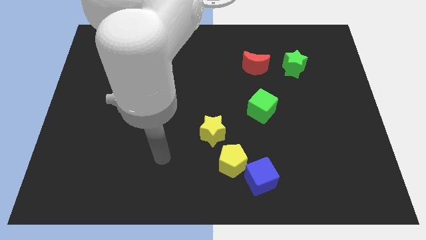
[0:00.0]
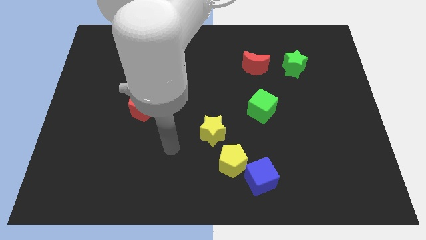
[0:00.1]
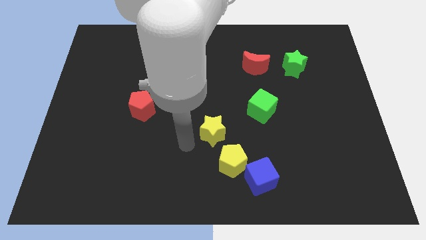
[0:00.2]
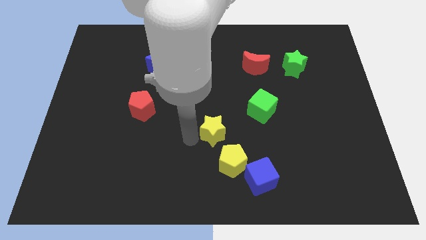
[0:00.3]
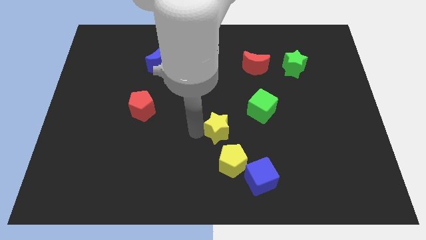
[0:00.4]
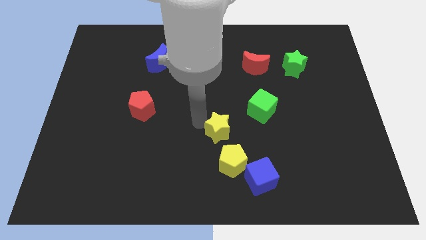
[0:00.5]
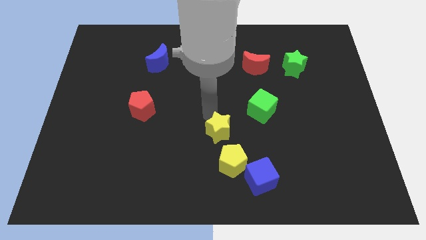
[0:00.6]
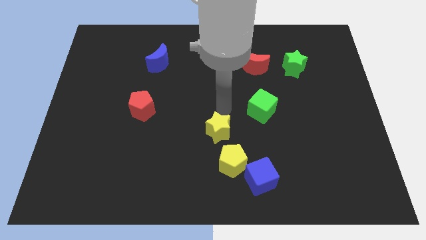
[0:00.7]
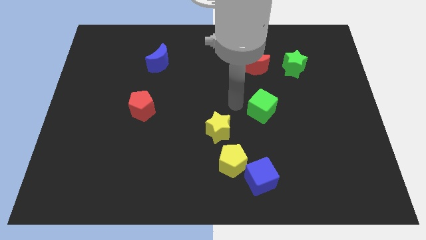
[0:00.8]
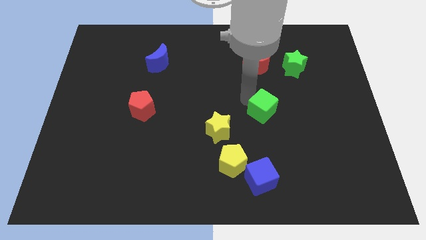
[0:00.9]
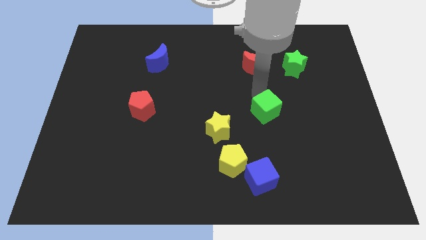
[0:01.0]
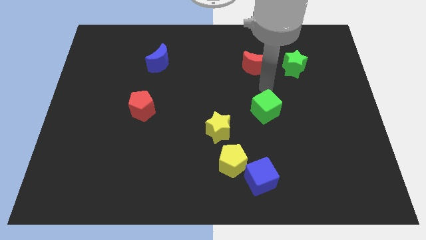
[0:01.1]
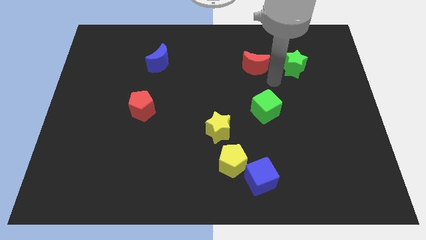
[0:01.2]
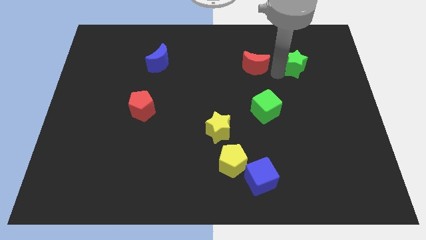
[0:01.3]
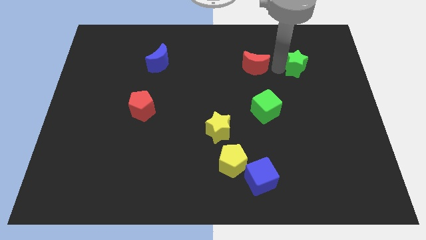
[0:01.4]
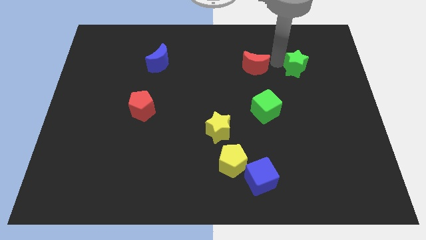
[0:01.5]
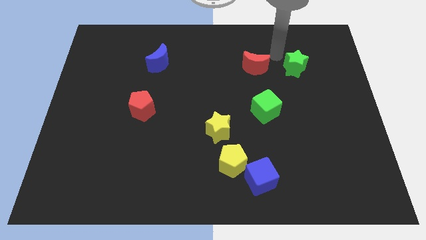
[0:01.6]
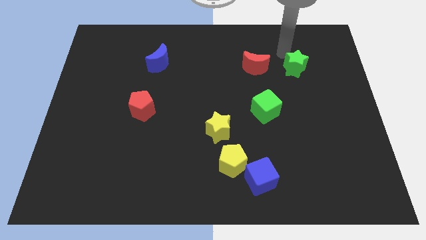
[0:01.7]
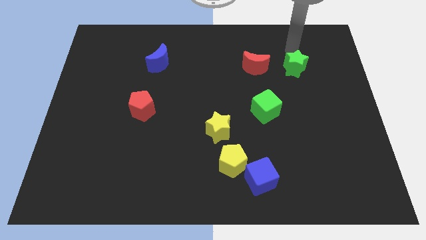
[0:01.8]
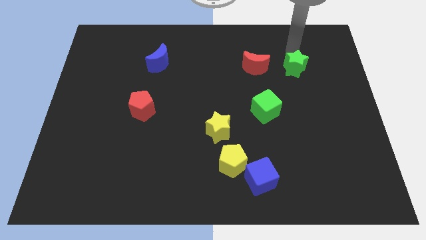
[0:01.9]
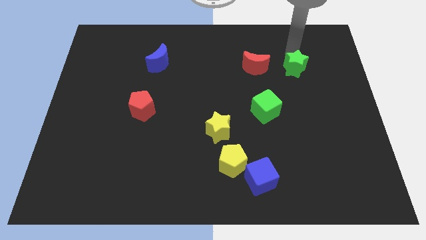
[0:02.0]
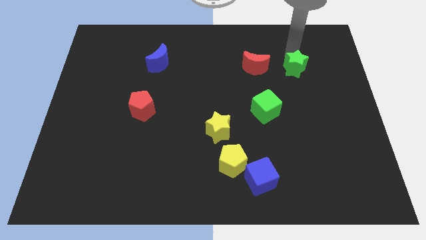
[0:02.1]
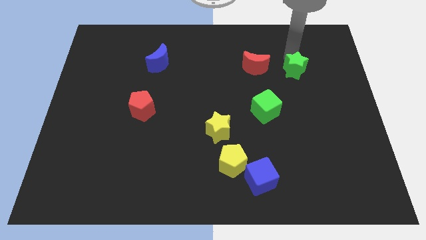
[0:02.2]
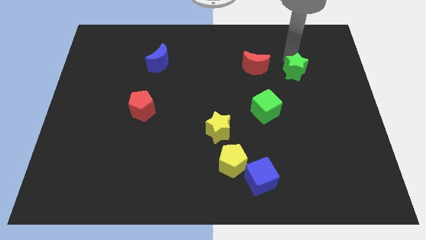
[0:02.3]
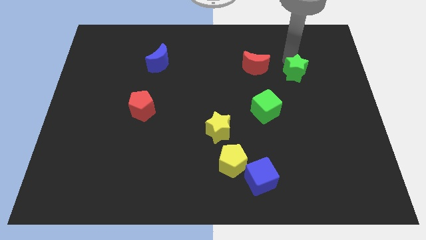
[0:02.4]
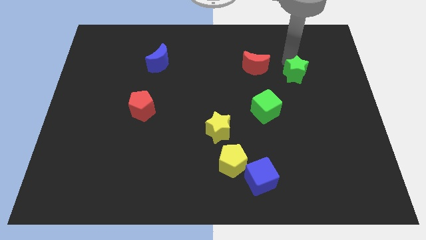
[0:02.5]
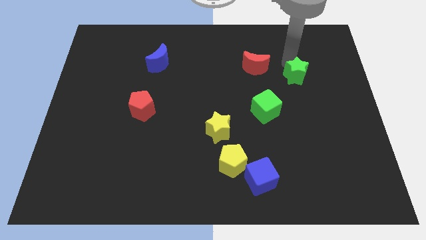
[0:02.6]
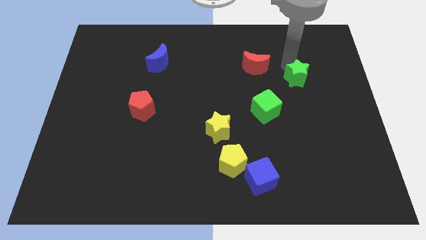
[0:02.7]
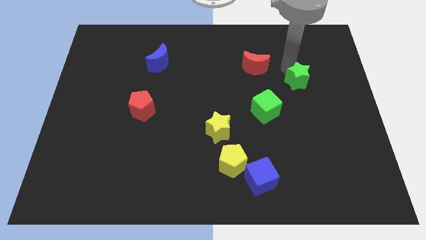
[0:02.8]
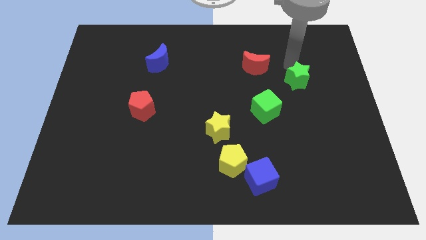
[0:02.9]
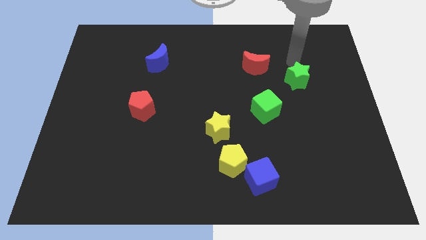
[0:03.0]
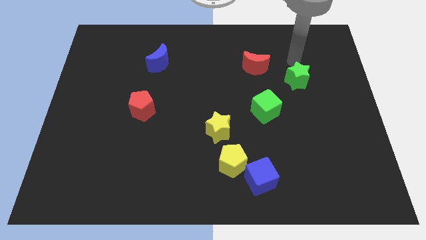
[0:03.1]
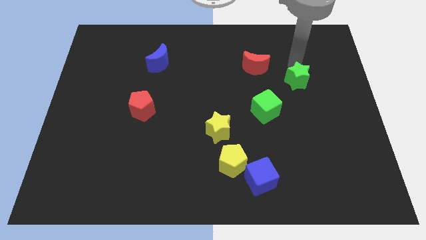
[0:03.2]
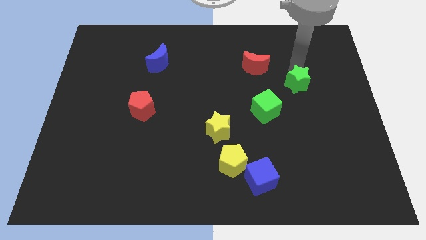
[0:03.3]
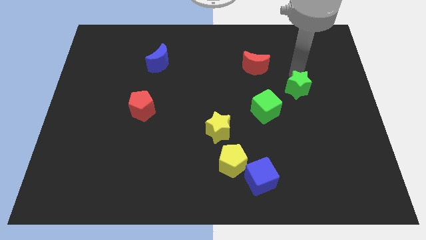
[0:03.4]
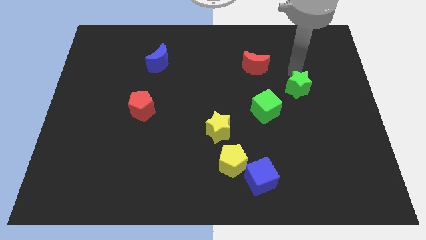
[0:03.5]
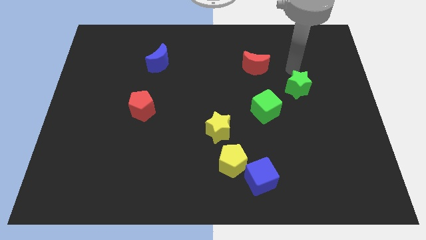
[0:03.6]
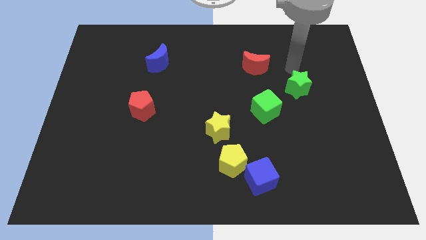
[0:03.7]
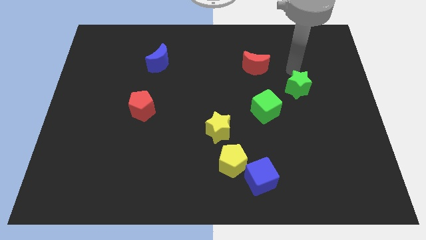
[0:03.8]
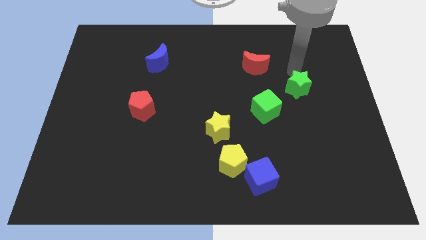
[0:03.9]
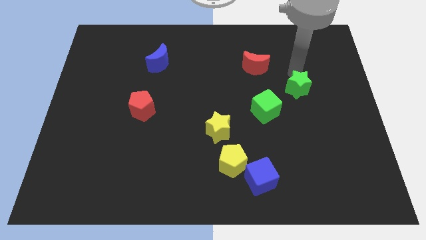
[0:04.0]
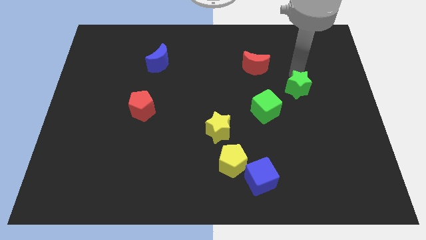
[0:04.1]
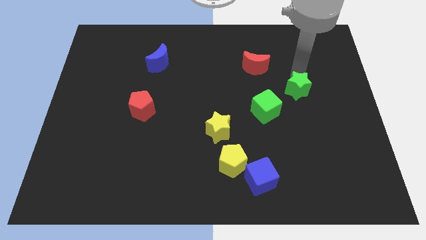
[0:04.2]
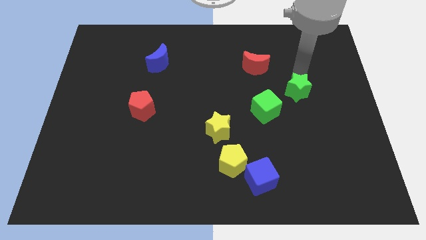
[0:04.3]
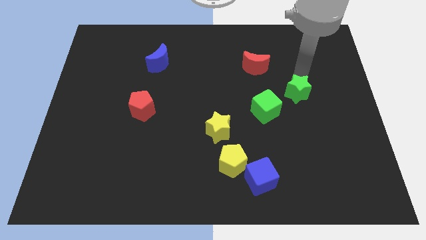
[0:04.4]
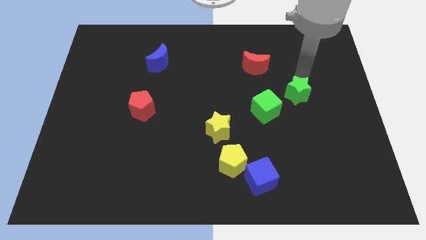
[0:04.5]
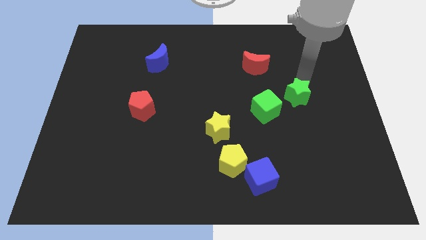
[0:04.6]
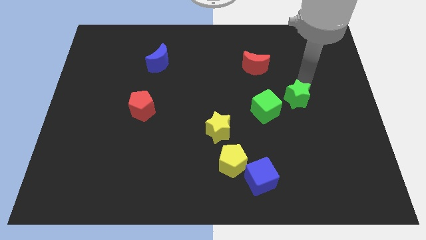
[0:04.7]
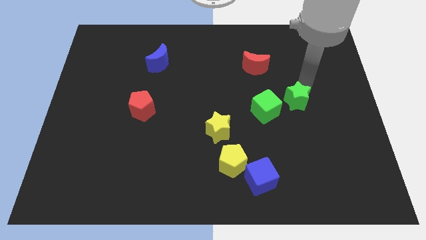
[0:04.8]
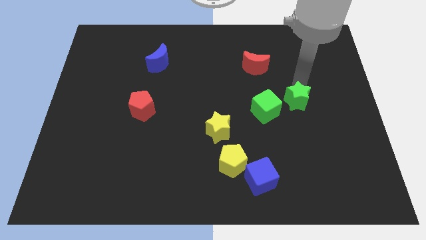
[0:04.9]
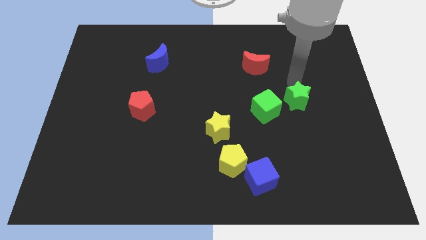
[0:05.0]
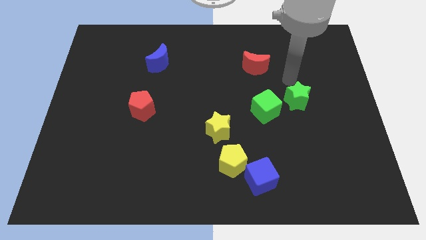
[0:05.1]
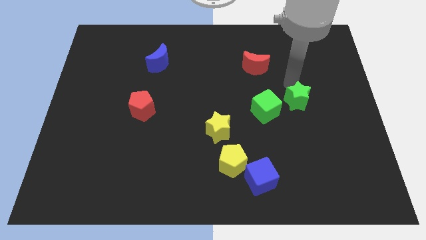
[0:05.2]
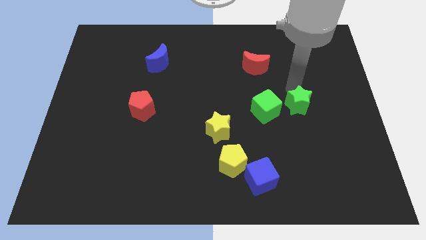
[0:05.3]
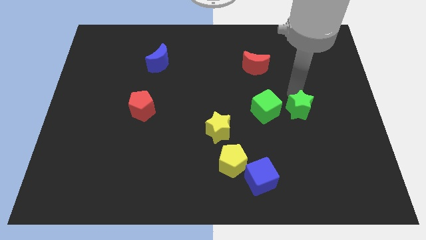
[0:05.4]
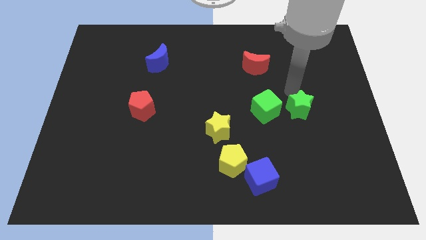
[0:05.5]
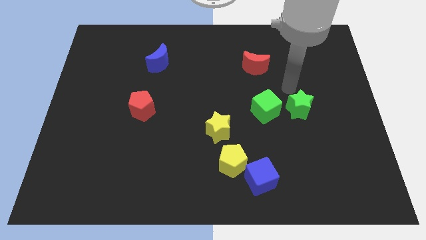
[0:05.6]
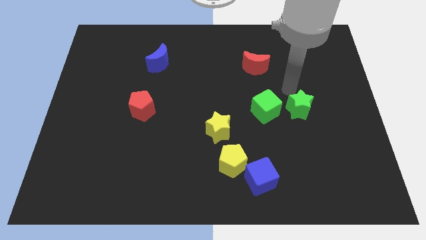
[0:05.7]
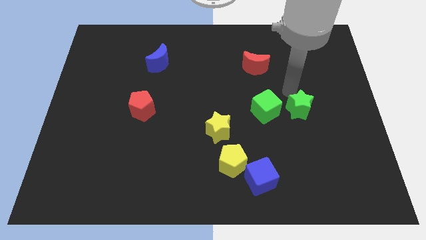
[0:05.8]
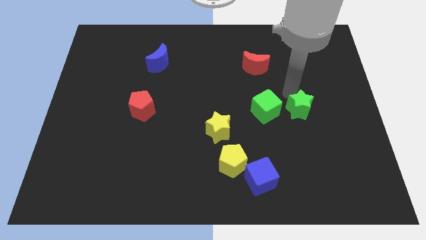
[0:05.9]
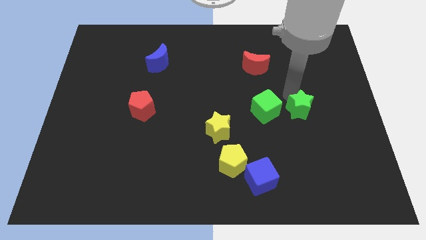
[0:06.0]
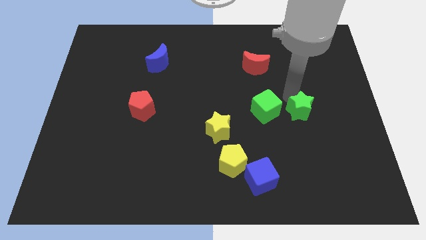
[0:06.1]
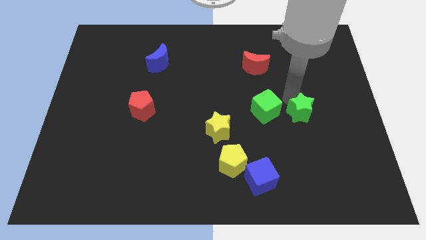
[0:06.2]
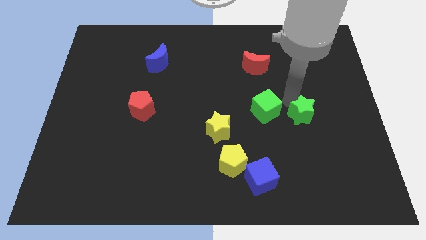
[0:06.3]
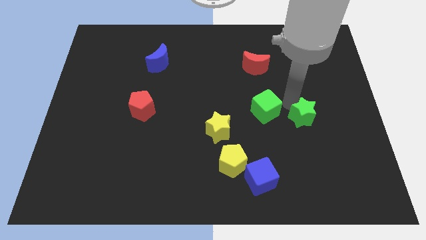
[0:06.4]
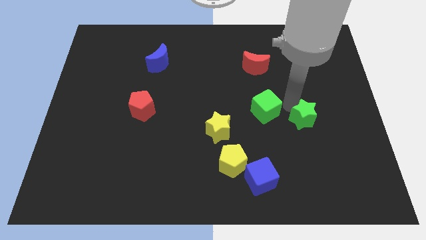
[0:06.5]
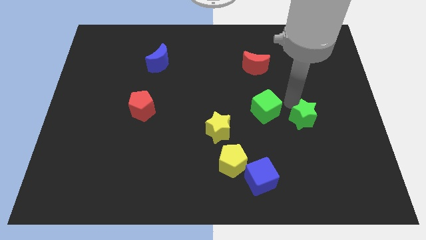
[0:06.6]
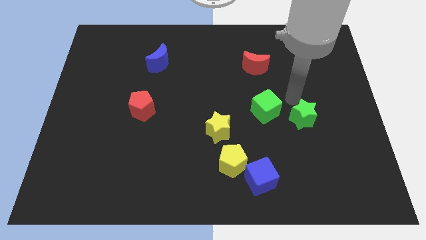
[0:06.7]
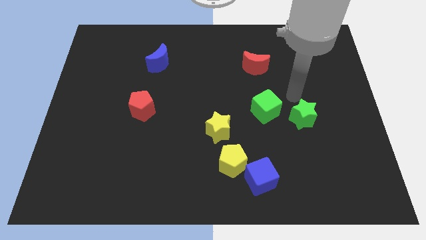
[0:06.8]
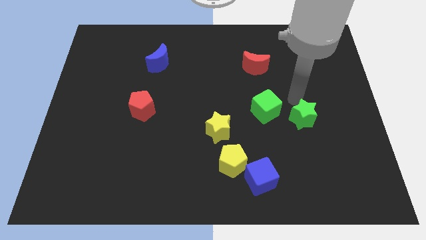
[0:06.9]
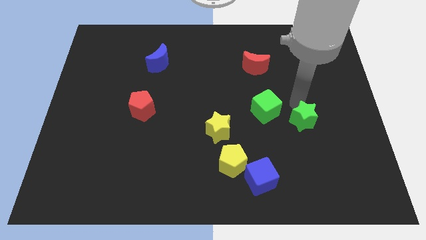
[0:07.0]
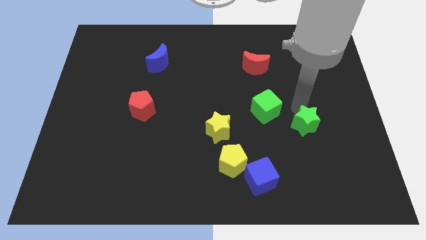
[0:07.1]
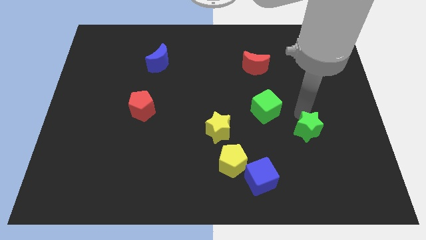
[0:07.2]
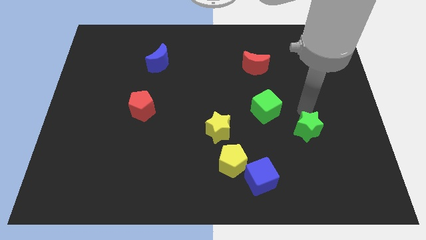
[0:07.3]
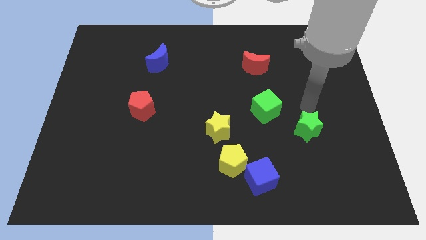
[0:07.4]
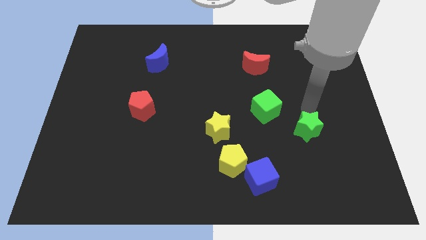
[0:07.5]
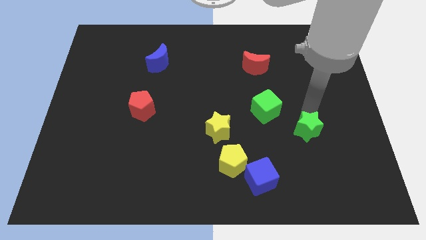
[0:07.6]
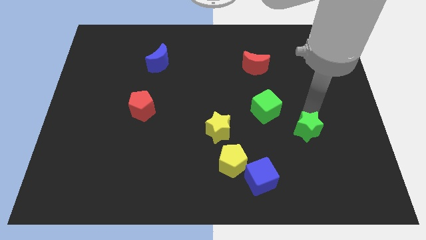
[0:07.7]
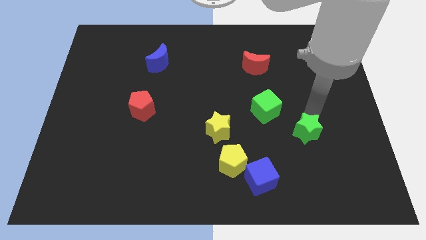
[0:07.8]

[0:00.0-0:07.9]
slide the green star down

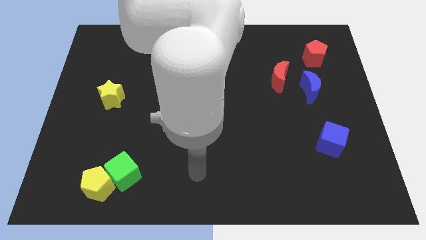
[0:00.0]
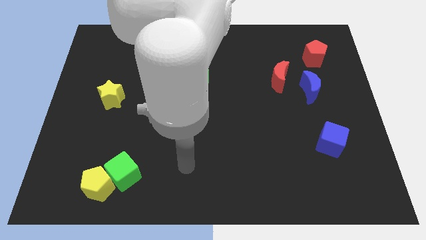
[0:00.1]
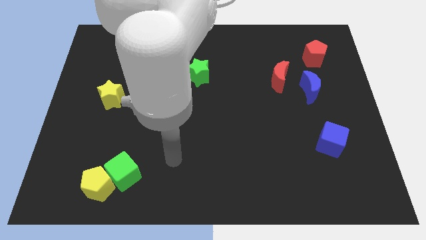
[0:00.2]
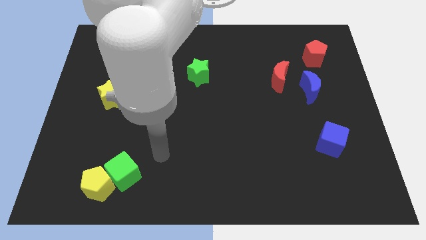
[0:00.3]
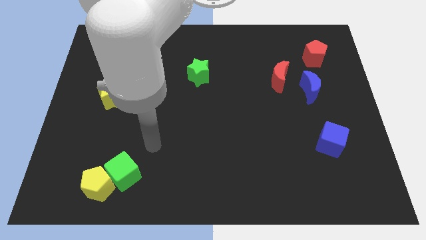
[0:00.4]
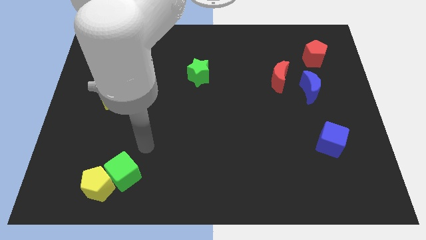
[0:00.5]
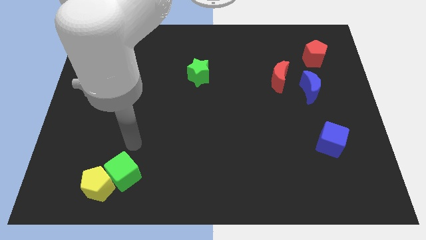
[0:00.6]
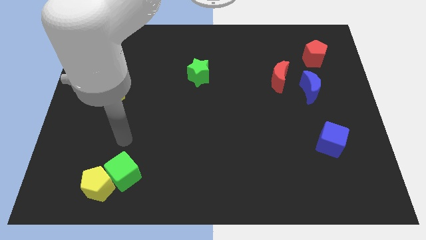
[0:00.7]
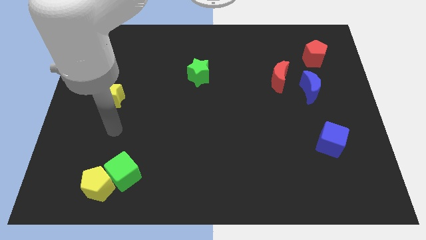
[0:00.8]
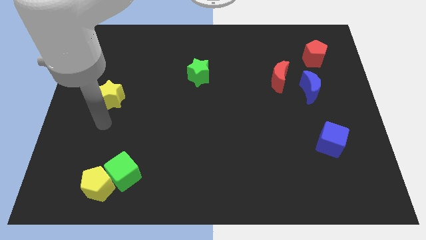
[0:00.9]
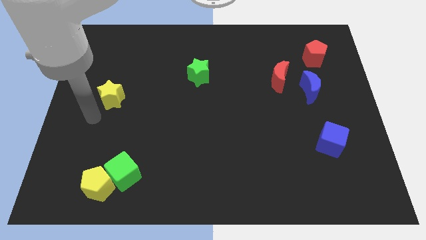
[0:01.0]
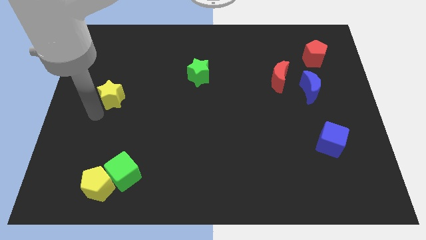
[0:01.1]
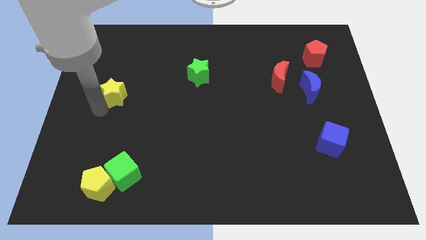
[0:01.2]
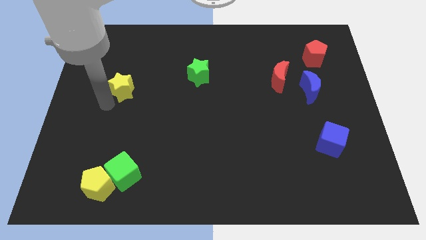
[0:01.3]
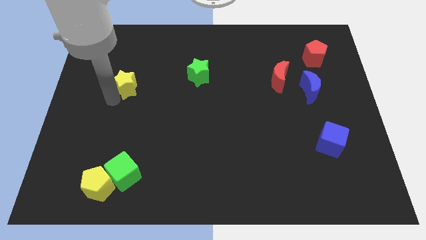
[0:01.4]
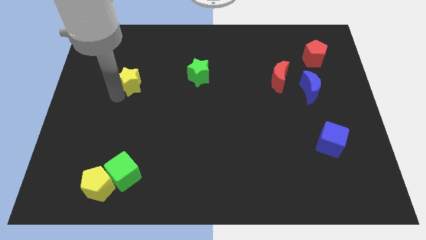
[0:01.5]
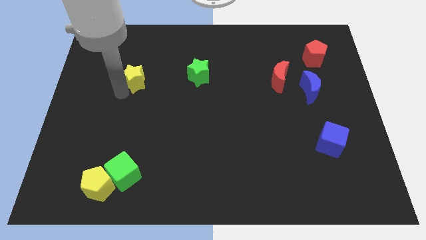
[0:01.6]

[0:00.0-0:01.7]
move the yellow star up and right diagonally a bit
